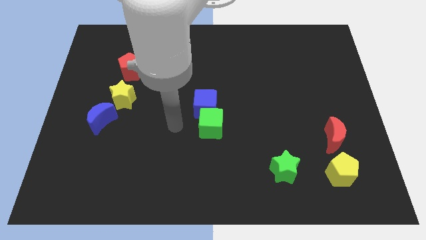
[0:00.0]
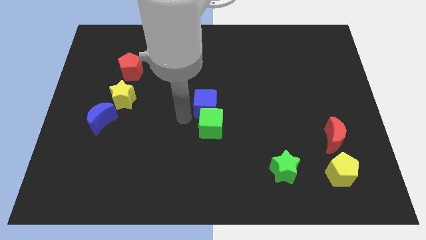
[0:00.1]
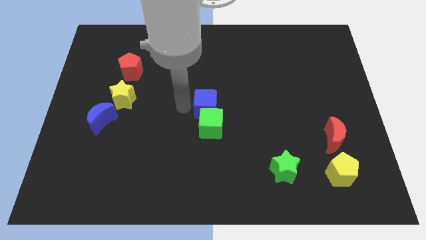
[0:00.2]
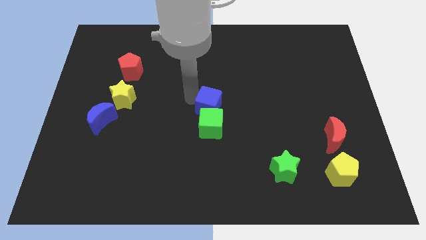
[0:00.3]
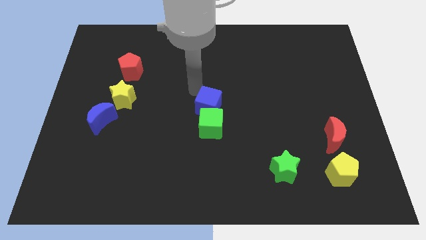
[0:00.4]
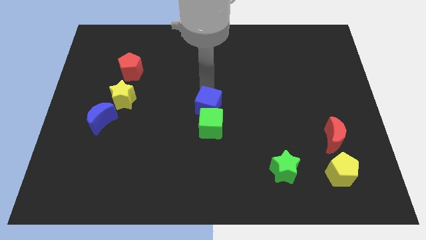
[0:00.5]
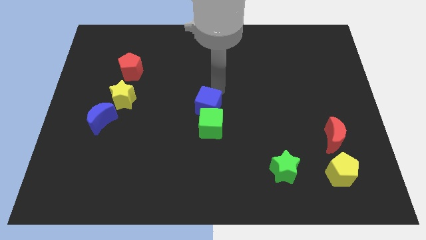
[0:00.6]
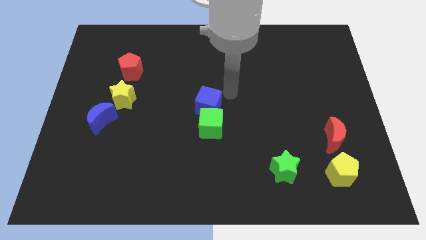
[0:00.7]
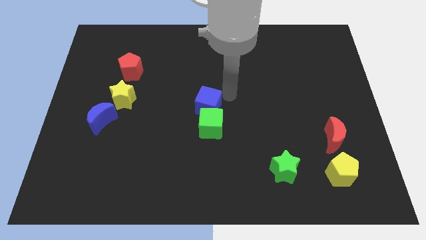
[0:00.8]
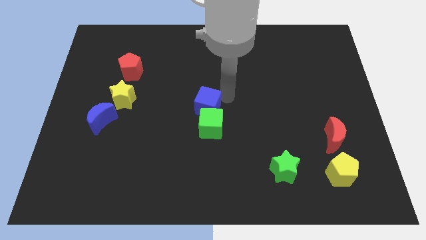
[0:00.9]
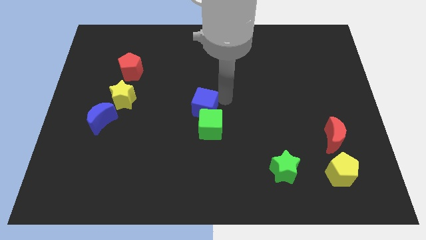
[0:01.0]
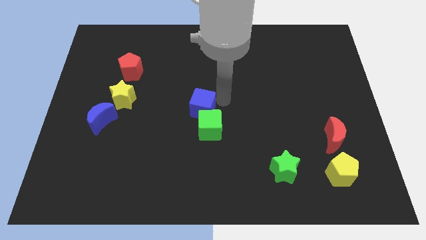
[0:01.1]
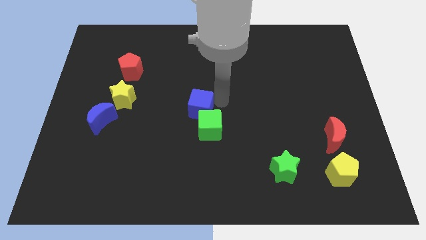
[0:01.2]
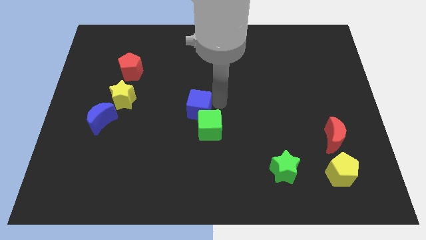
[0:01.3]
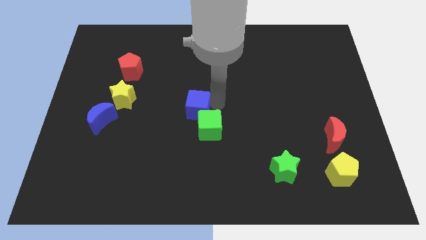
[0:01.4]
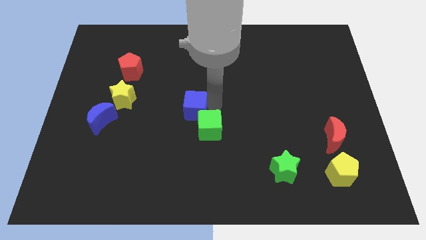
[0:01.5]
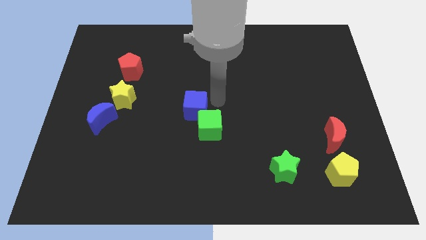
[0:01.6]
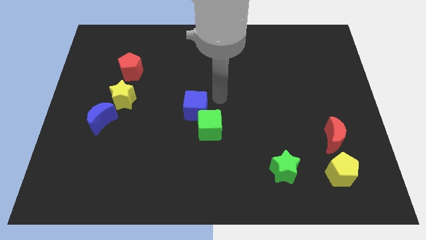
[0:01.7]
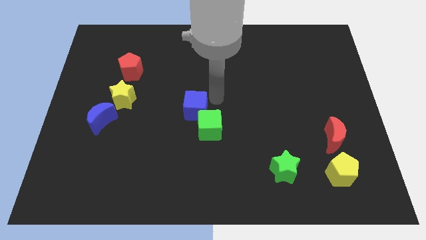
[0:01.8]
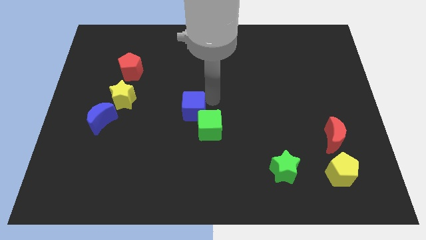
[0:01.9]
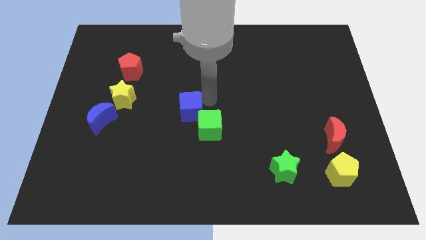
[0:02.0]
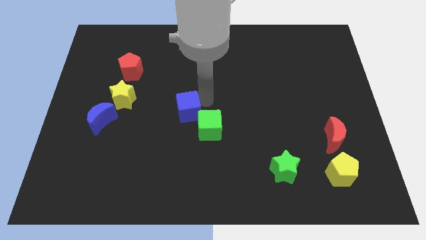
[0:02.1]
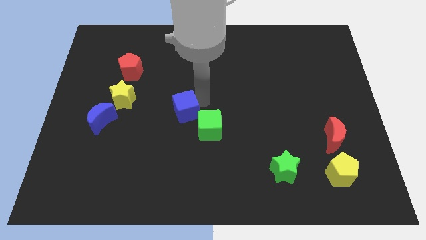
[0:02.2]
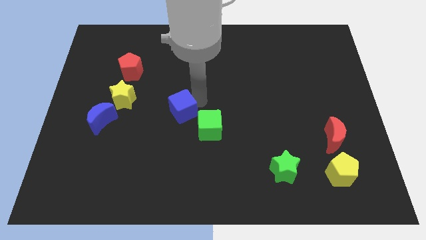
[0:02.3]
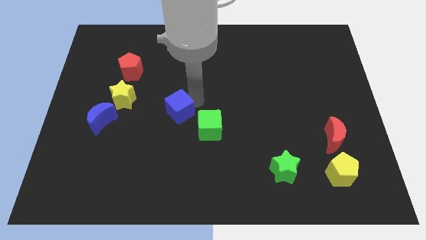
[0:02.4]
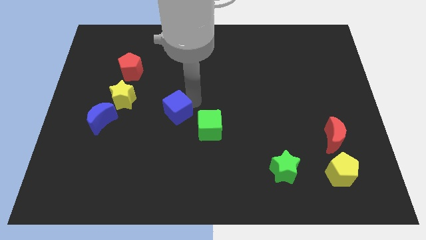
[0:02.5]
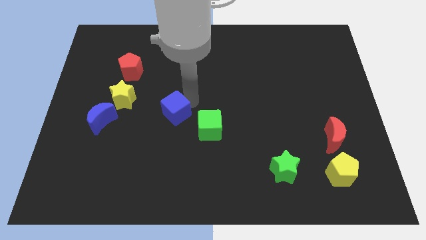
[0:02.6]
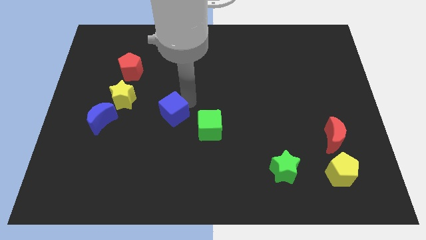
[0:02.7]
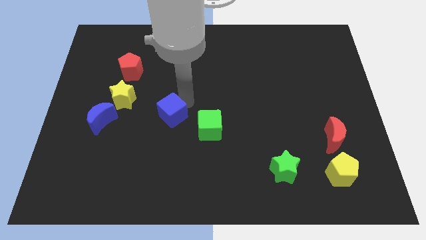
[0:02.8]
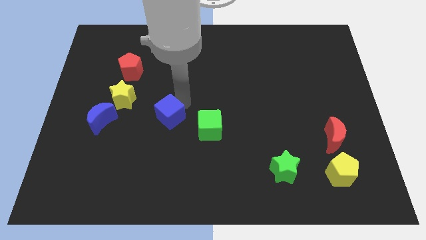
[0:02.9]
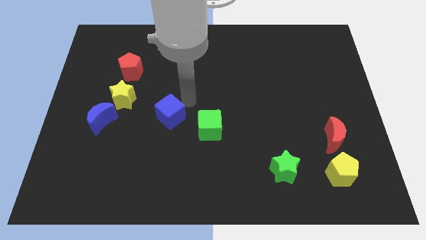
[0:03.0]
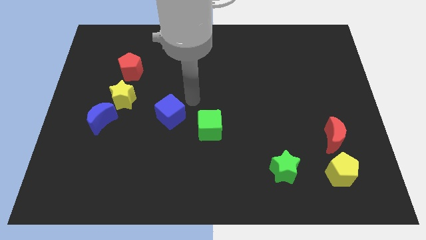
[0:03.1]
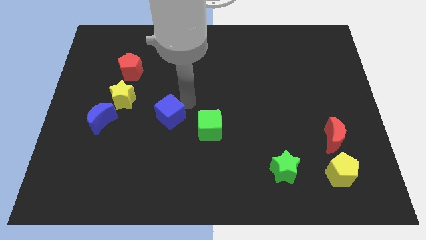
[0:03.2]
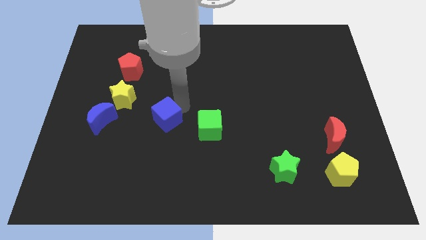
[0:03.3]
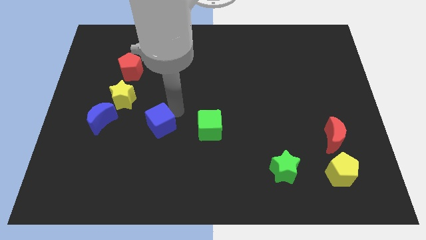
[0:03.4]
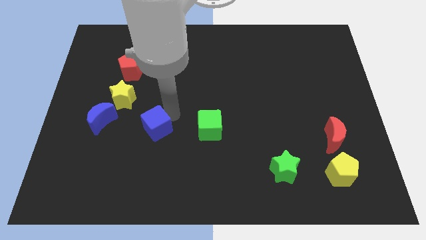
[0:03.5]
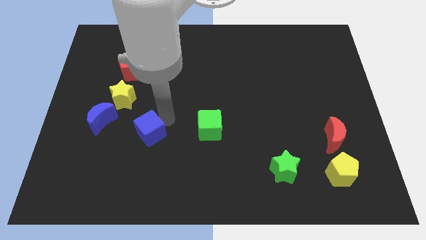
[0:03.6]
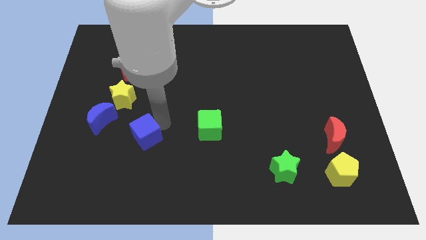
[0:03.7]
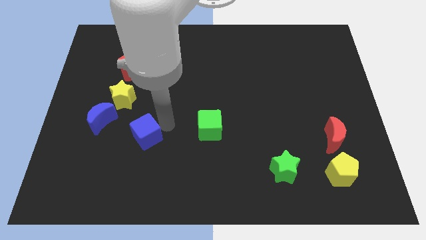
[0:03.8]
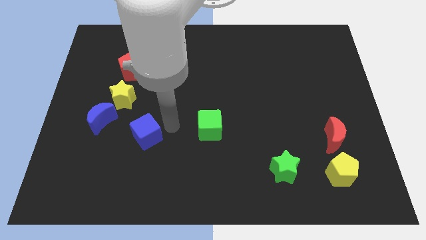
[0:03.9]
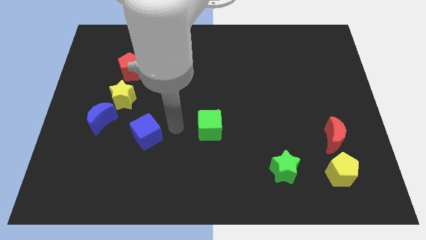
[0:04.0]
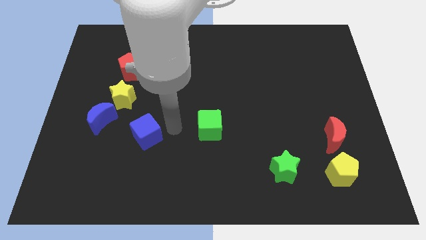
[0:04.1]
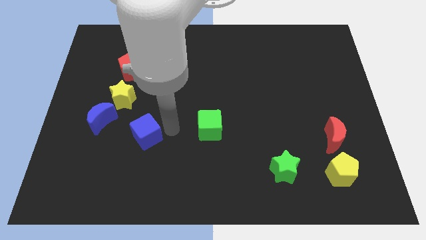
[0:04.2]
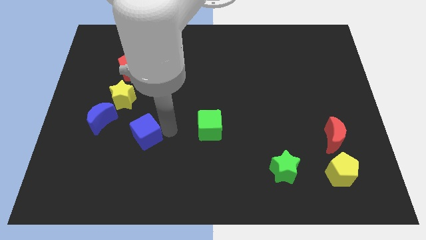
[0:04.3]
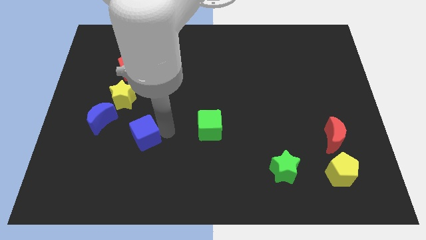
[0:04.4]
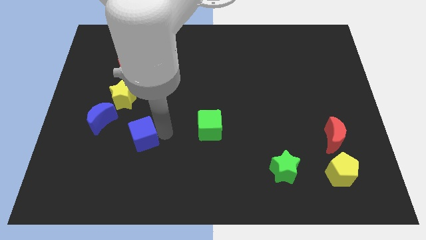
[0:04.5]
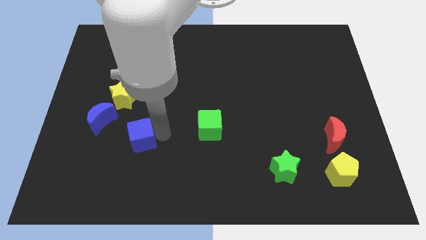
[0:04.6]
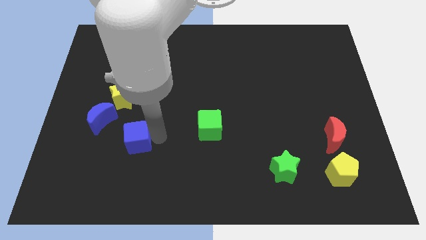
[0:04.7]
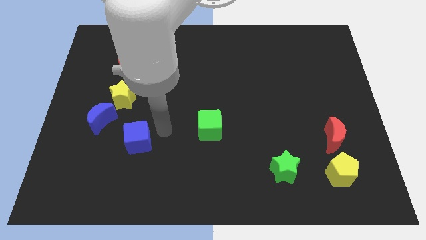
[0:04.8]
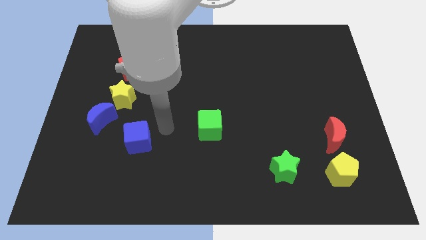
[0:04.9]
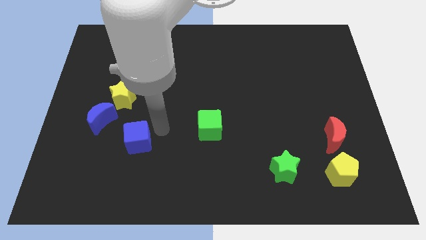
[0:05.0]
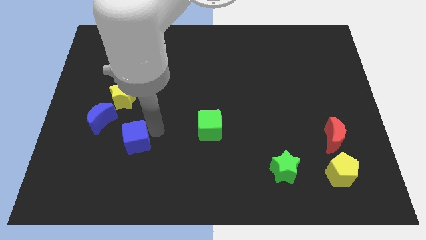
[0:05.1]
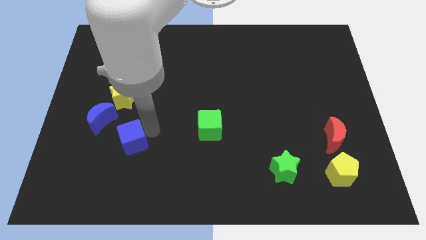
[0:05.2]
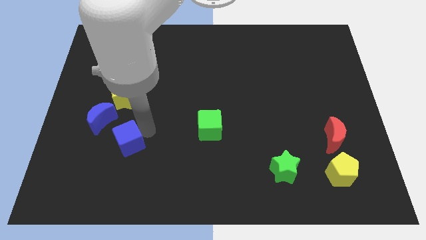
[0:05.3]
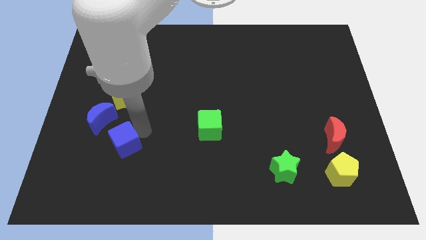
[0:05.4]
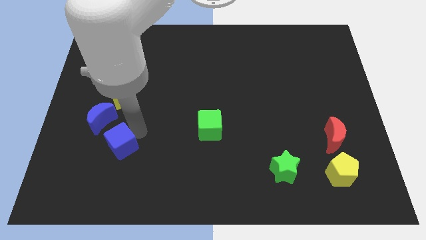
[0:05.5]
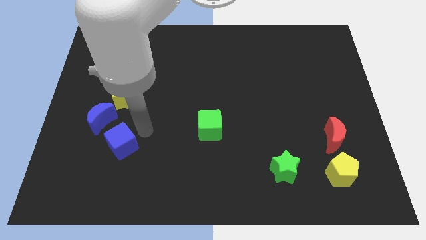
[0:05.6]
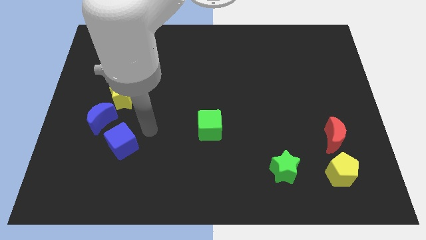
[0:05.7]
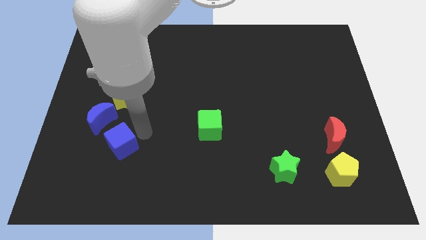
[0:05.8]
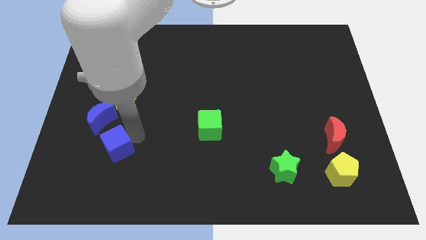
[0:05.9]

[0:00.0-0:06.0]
move the blue cube to the bottom of the blue moon
